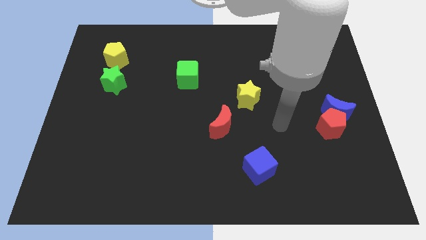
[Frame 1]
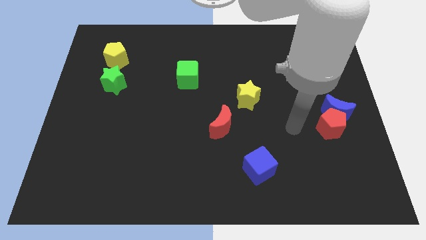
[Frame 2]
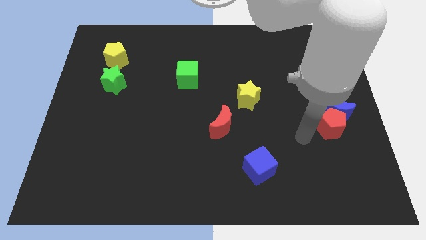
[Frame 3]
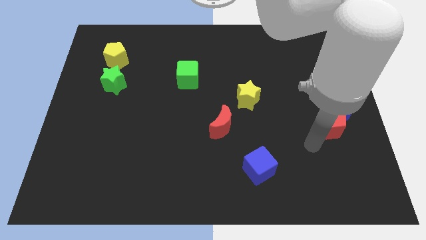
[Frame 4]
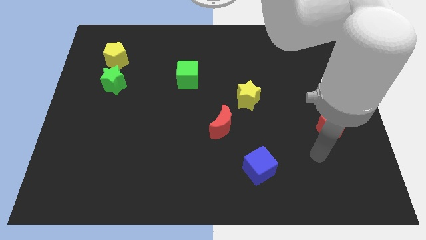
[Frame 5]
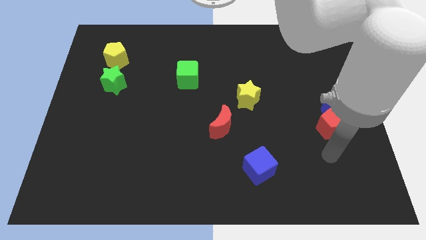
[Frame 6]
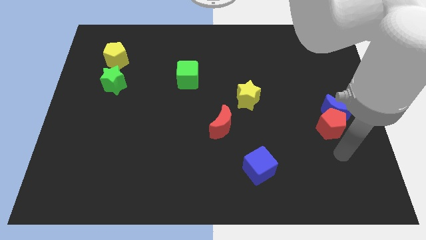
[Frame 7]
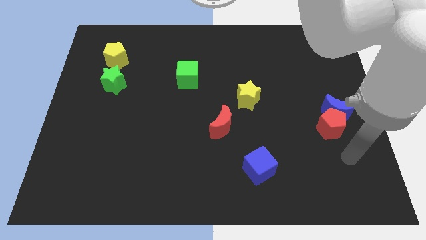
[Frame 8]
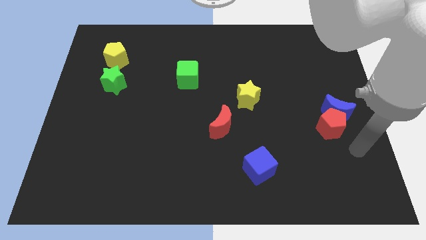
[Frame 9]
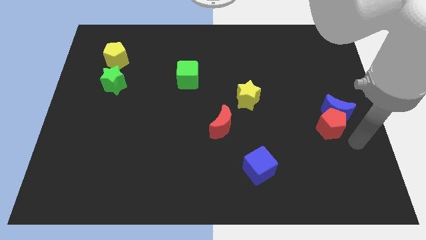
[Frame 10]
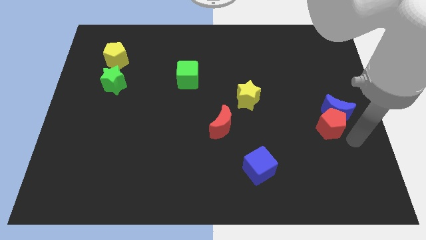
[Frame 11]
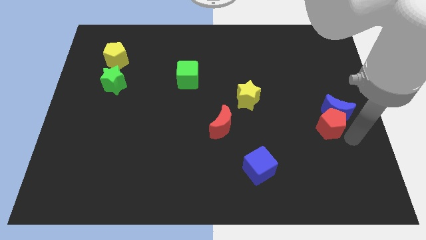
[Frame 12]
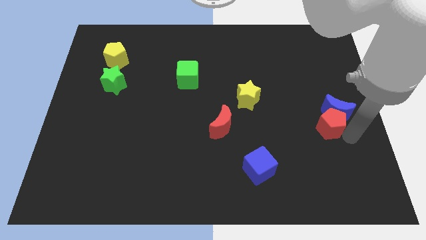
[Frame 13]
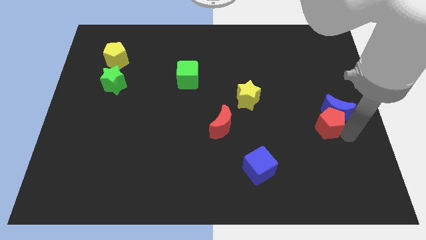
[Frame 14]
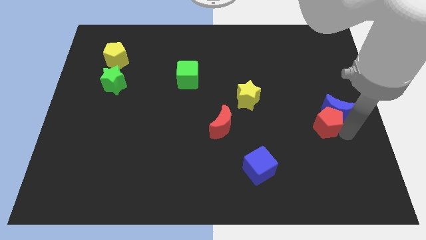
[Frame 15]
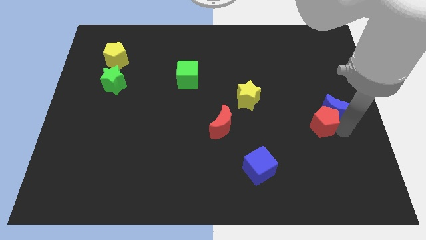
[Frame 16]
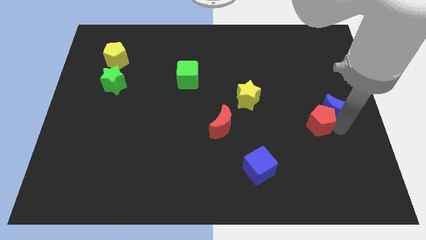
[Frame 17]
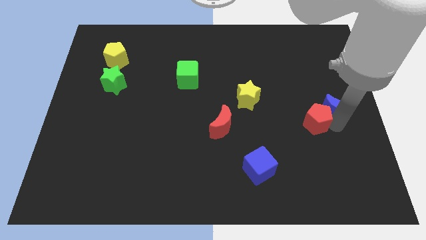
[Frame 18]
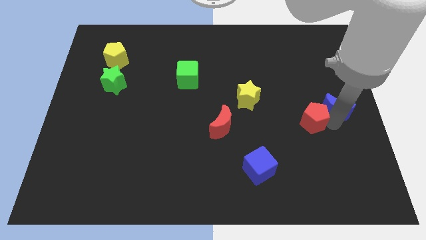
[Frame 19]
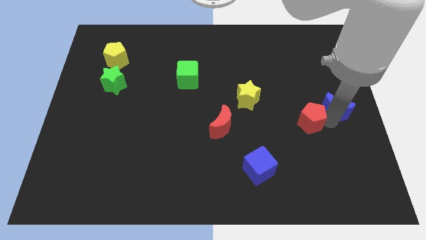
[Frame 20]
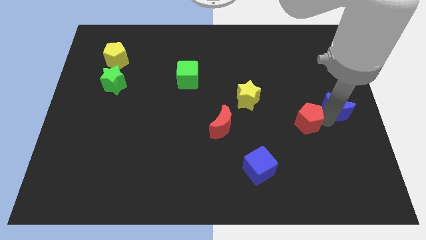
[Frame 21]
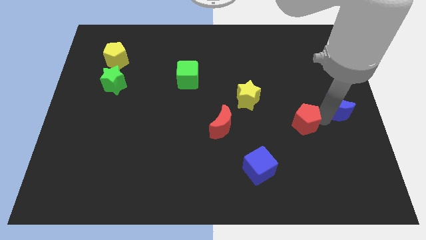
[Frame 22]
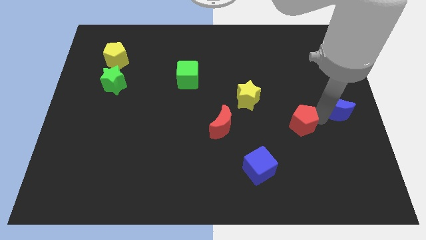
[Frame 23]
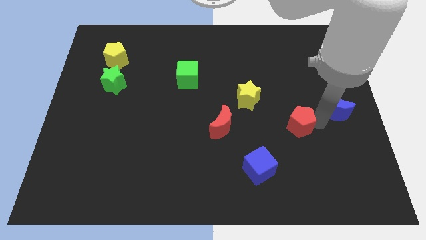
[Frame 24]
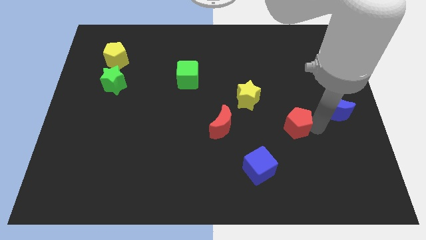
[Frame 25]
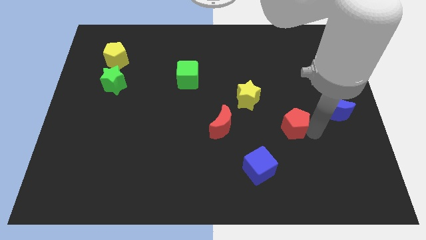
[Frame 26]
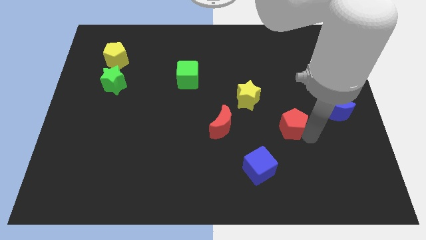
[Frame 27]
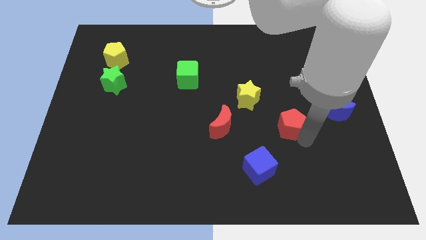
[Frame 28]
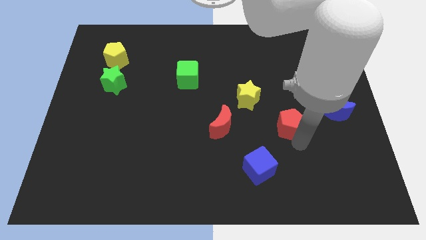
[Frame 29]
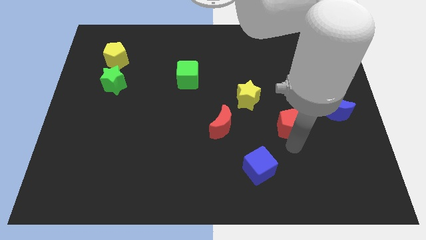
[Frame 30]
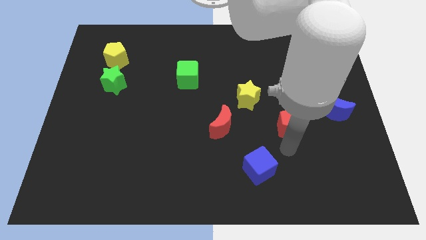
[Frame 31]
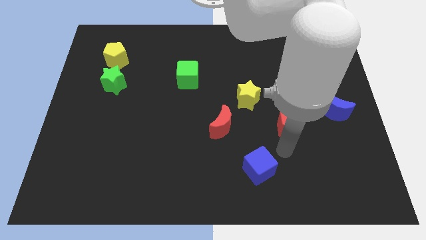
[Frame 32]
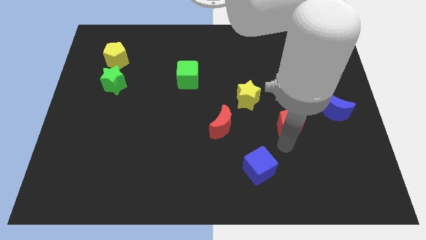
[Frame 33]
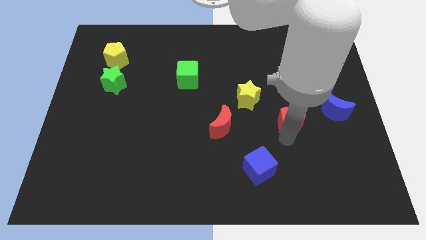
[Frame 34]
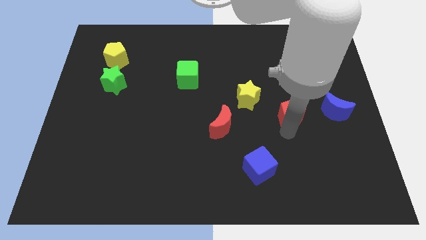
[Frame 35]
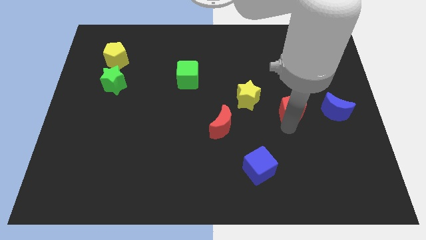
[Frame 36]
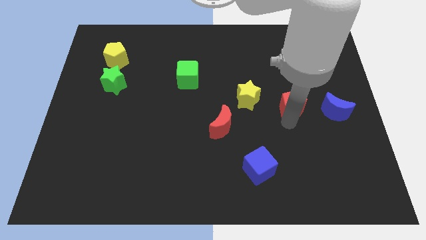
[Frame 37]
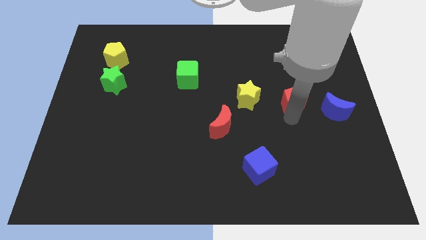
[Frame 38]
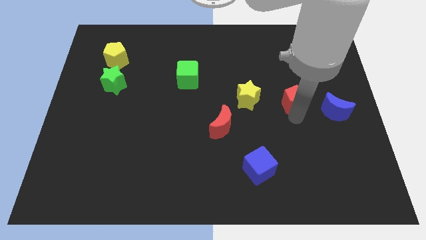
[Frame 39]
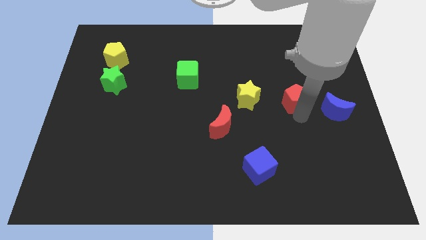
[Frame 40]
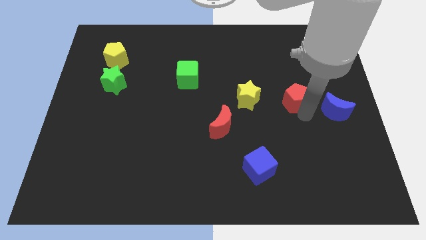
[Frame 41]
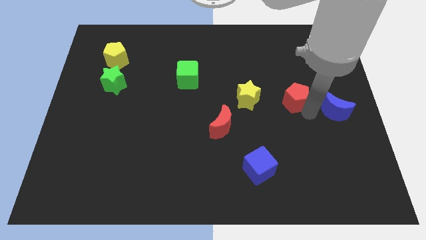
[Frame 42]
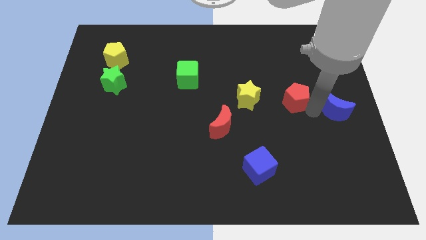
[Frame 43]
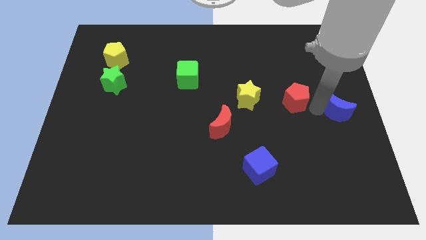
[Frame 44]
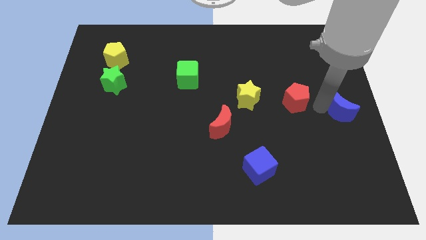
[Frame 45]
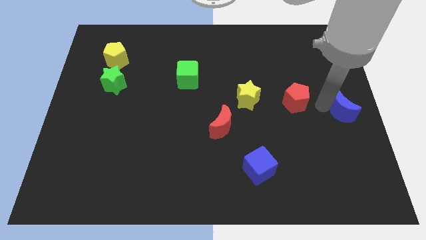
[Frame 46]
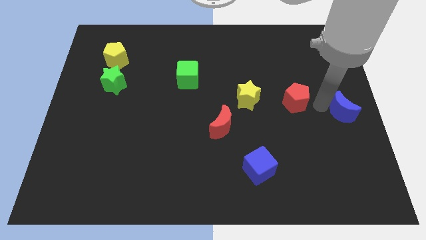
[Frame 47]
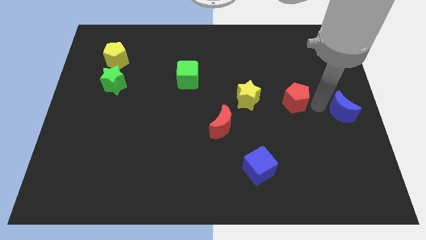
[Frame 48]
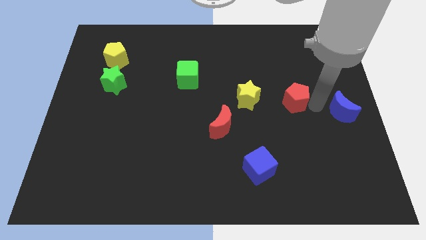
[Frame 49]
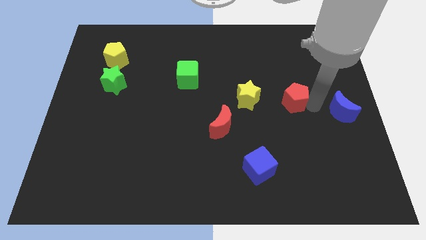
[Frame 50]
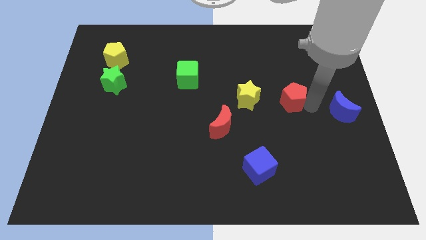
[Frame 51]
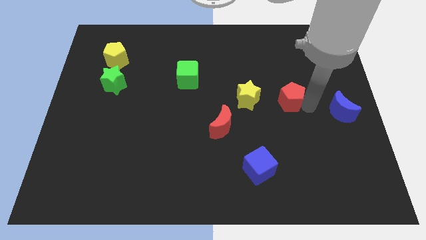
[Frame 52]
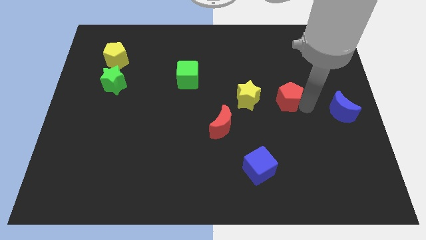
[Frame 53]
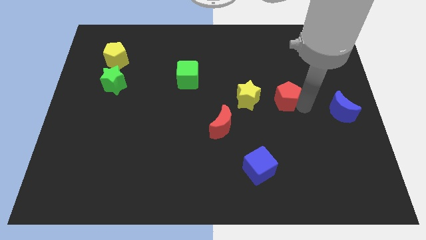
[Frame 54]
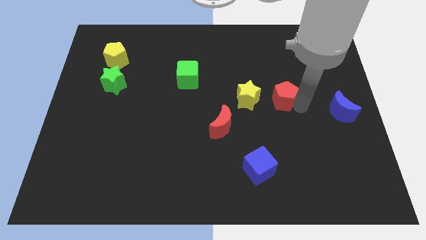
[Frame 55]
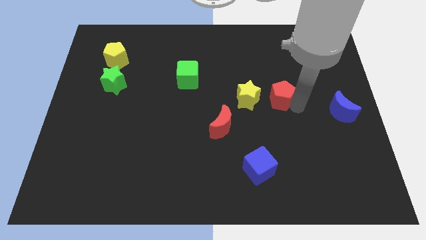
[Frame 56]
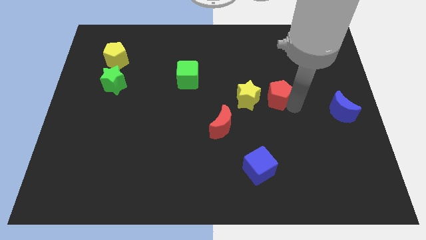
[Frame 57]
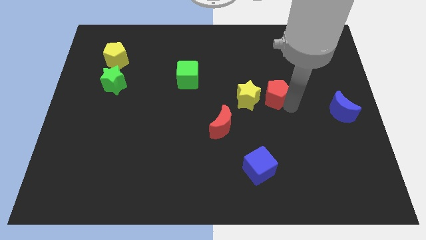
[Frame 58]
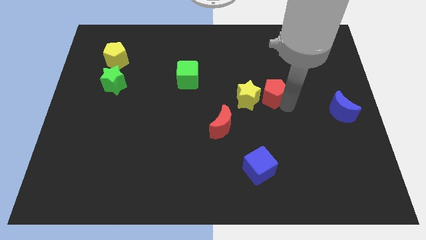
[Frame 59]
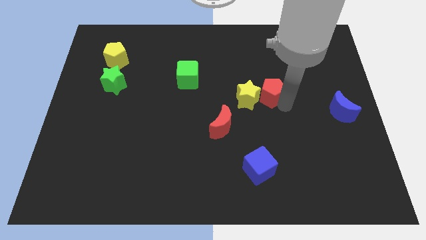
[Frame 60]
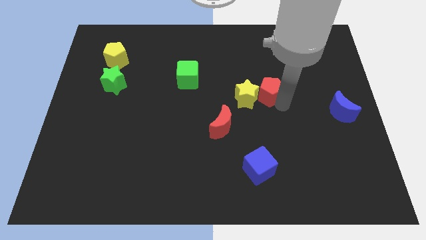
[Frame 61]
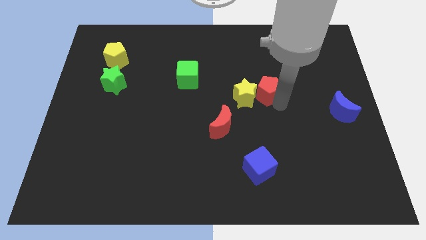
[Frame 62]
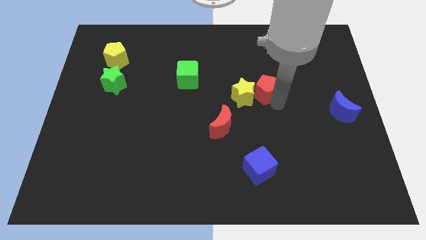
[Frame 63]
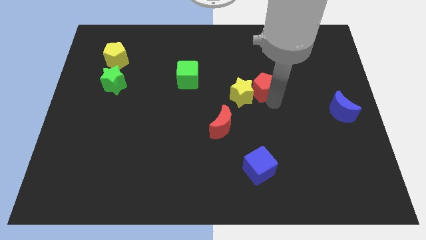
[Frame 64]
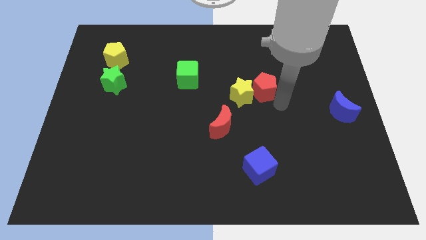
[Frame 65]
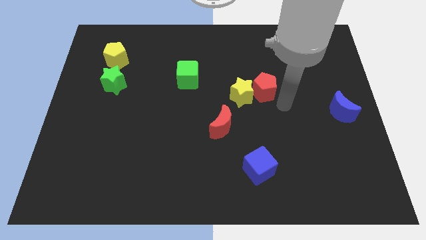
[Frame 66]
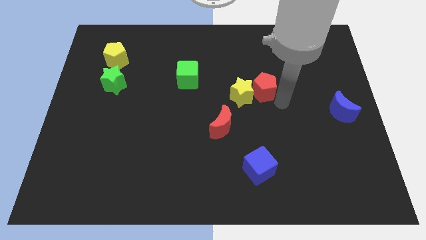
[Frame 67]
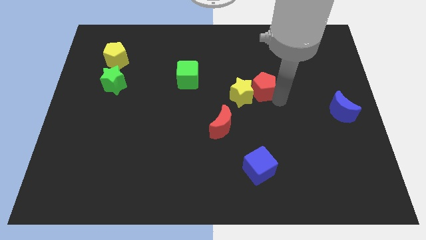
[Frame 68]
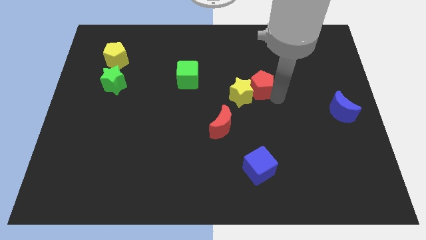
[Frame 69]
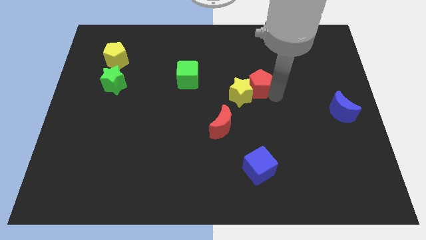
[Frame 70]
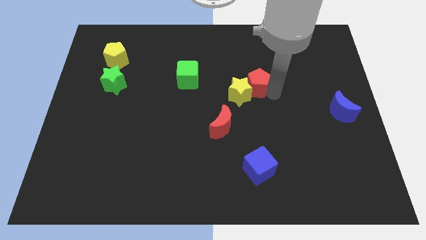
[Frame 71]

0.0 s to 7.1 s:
slide the red pentagon up and to the left

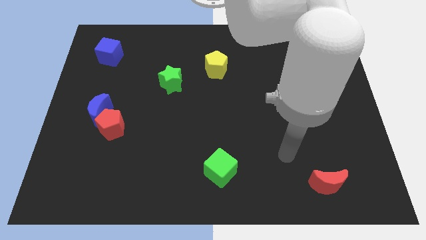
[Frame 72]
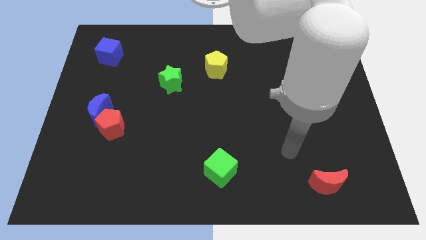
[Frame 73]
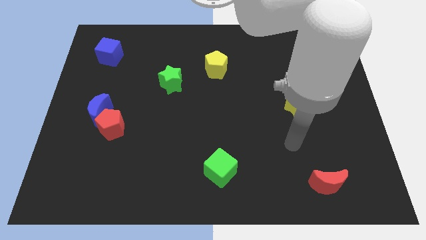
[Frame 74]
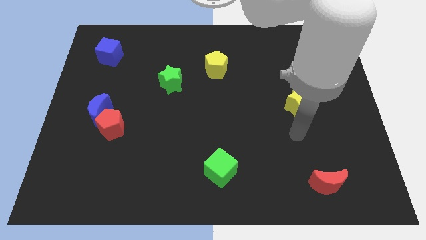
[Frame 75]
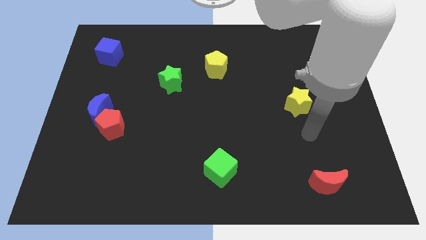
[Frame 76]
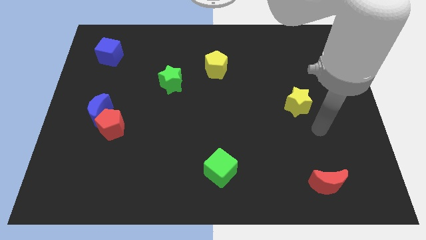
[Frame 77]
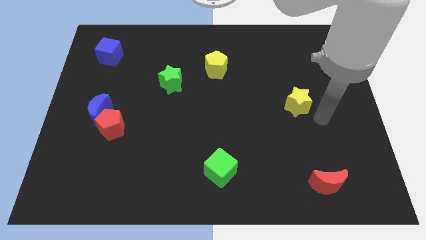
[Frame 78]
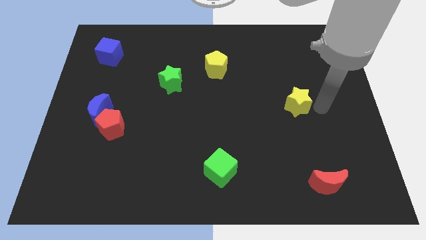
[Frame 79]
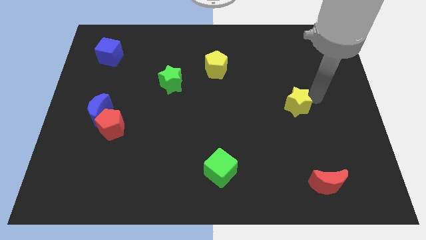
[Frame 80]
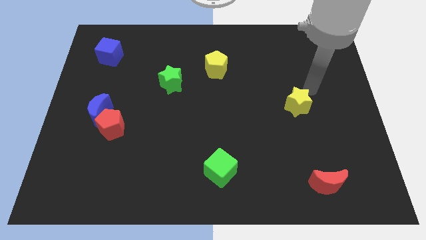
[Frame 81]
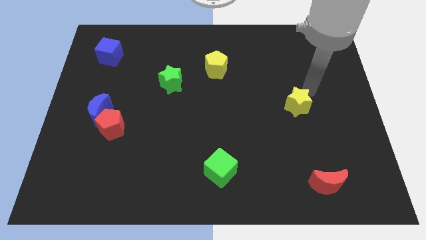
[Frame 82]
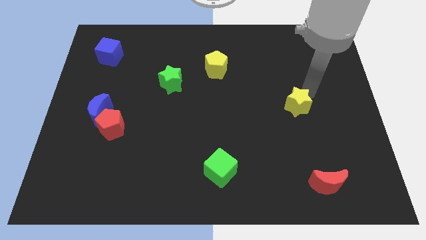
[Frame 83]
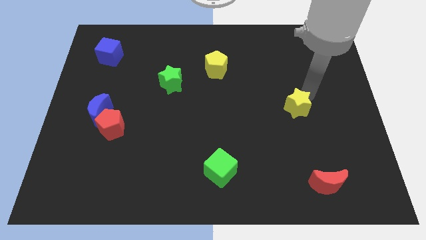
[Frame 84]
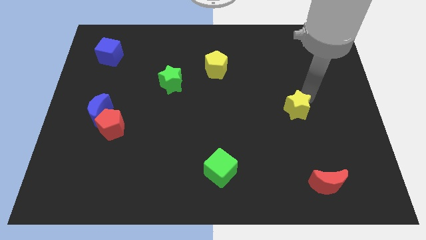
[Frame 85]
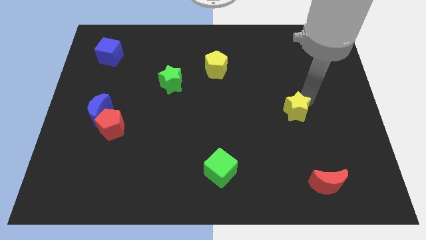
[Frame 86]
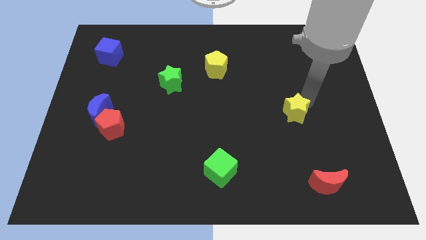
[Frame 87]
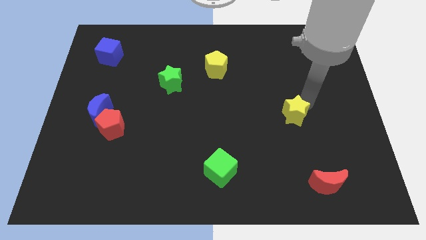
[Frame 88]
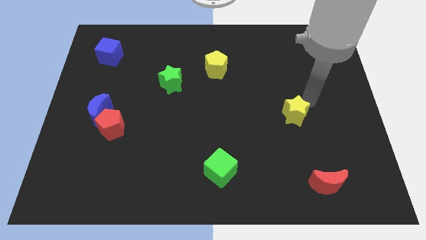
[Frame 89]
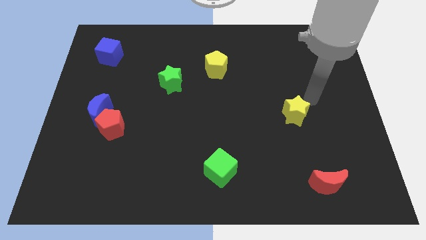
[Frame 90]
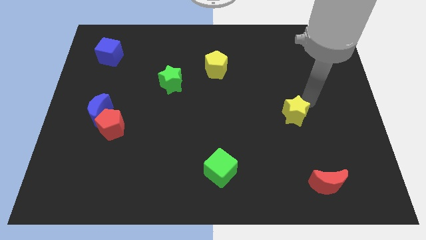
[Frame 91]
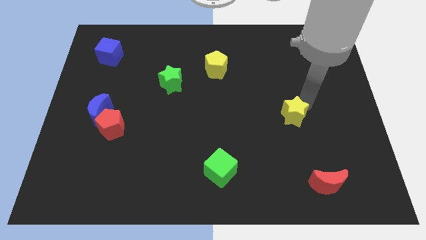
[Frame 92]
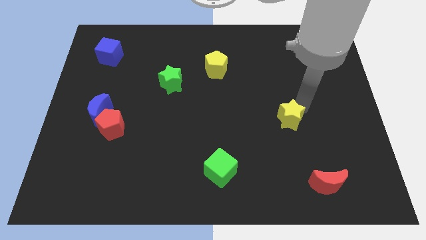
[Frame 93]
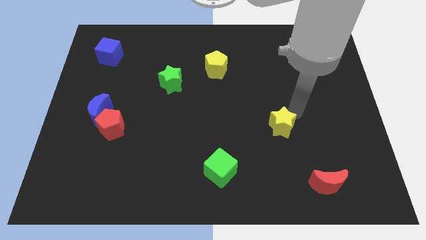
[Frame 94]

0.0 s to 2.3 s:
move the yellow star diagonally downwards and left a little bit
